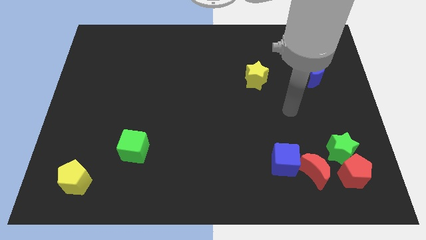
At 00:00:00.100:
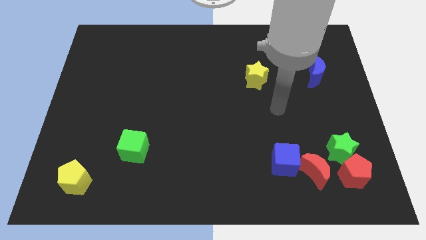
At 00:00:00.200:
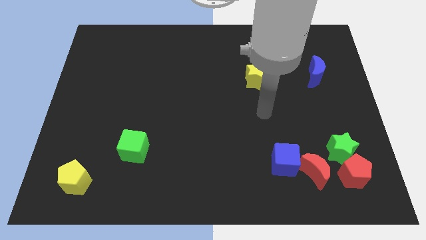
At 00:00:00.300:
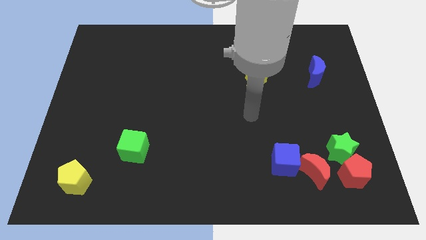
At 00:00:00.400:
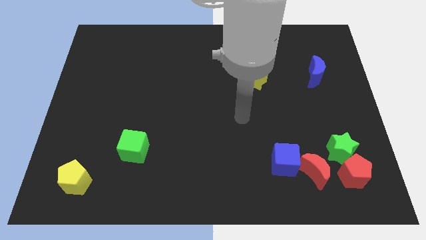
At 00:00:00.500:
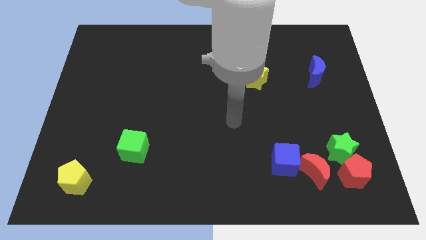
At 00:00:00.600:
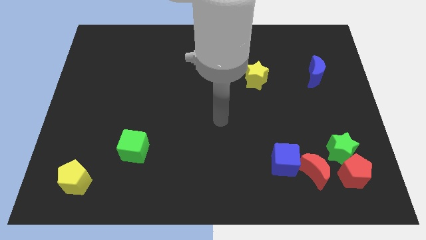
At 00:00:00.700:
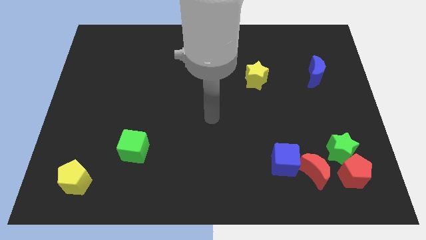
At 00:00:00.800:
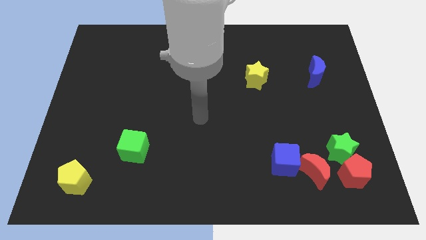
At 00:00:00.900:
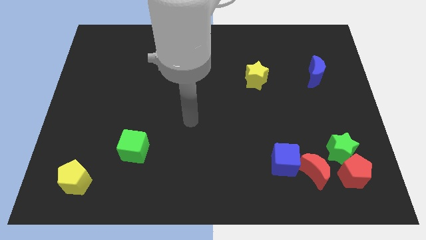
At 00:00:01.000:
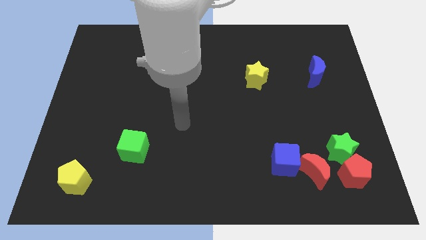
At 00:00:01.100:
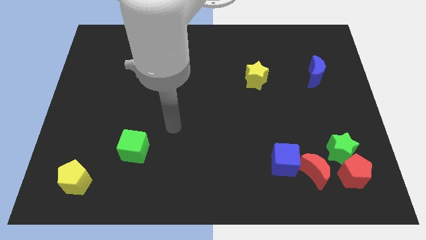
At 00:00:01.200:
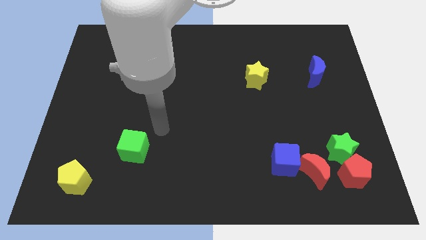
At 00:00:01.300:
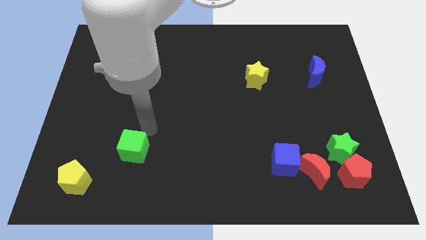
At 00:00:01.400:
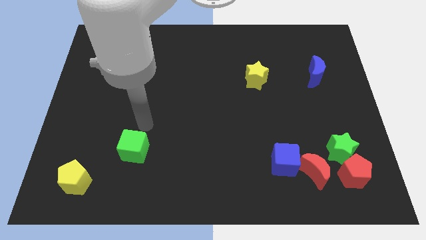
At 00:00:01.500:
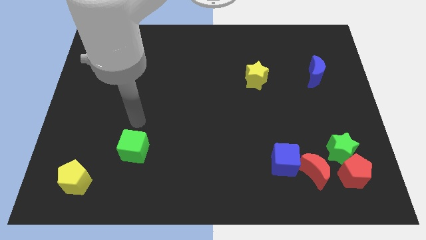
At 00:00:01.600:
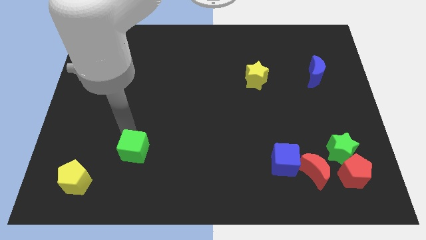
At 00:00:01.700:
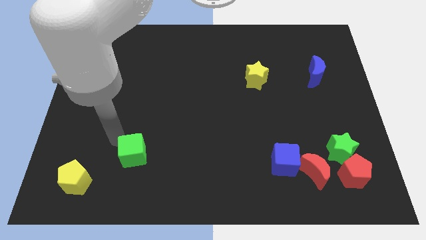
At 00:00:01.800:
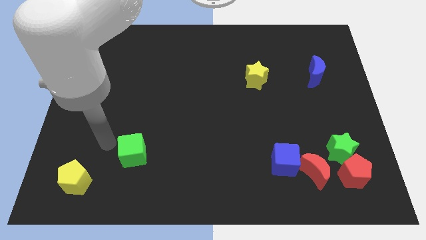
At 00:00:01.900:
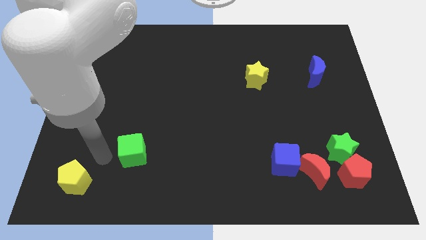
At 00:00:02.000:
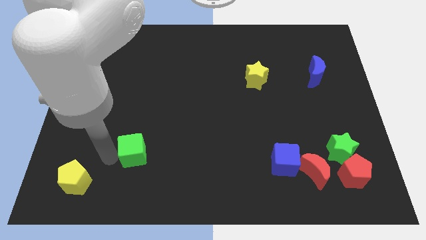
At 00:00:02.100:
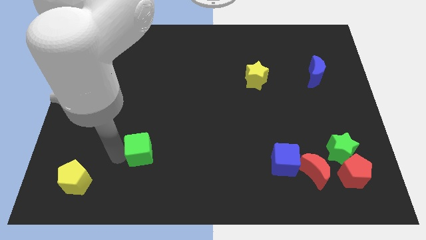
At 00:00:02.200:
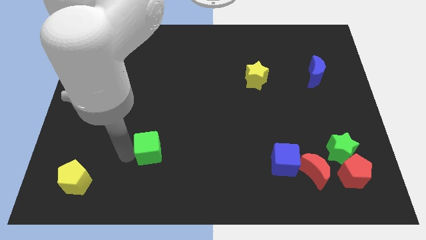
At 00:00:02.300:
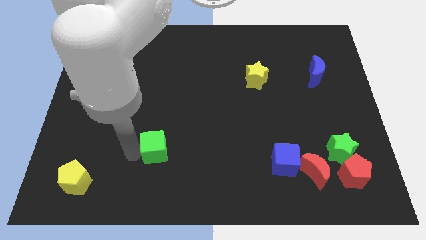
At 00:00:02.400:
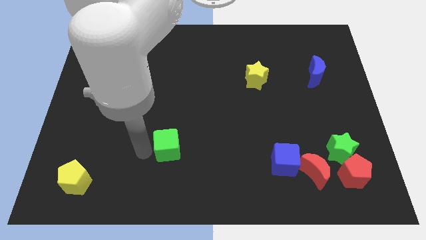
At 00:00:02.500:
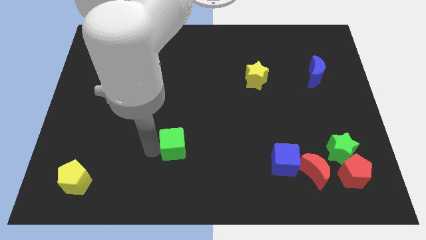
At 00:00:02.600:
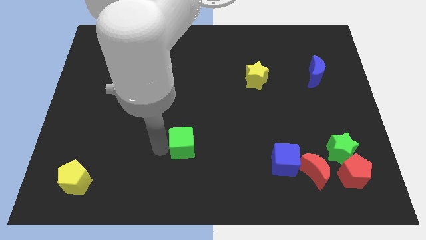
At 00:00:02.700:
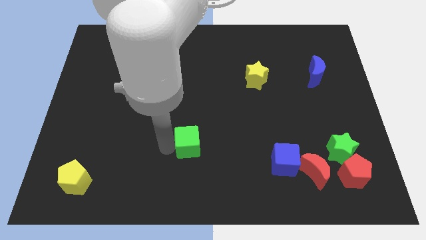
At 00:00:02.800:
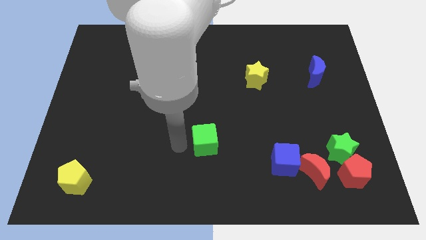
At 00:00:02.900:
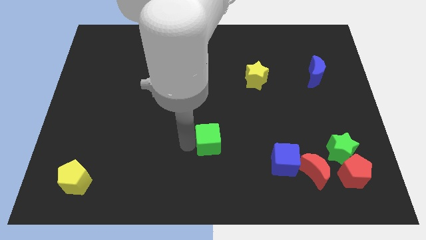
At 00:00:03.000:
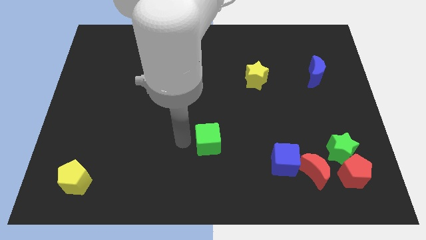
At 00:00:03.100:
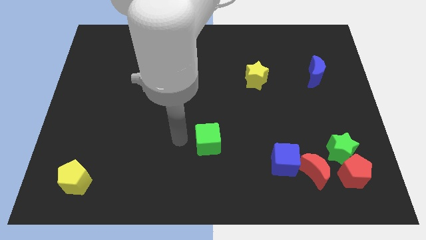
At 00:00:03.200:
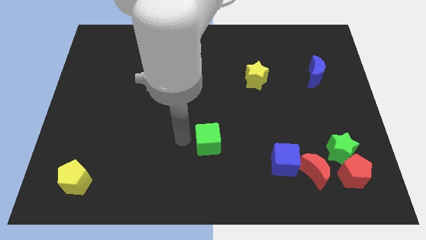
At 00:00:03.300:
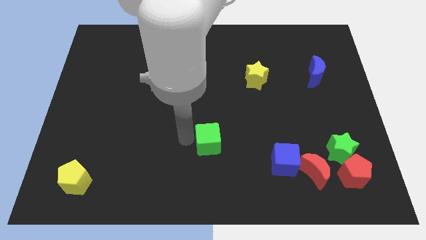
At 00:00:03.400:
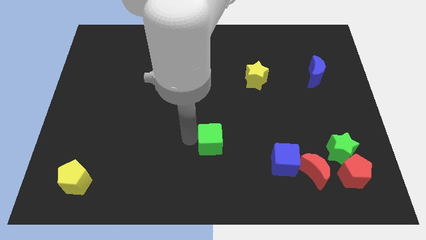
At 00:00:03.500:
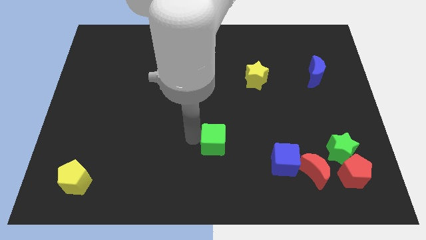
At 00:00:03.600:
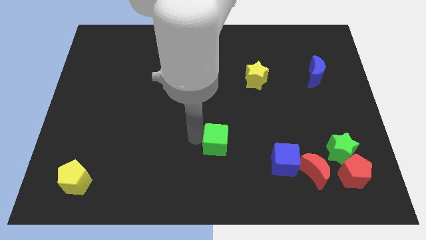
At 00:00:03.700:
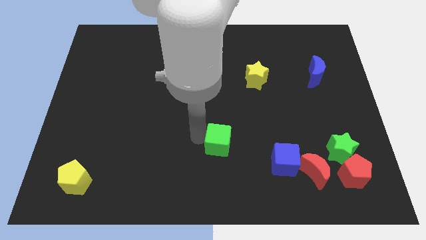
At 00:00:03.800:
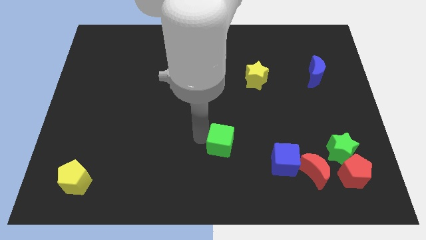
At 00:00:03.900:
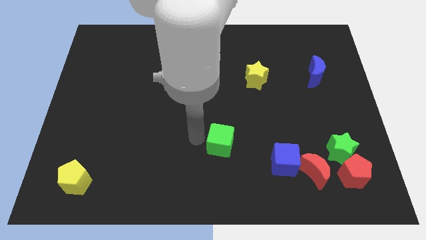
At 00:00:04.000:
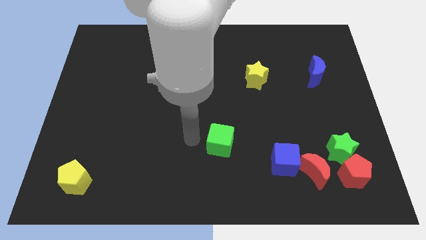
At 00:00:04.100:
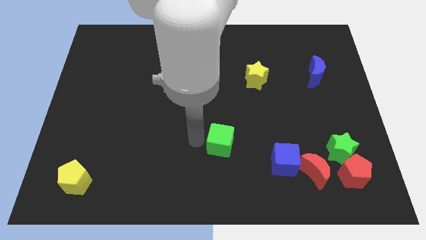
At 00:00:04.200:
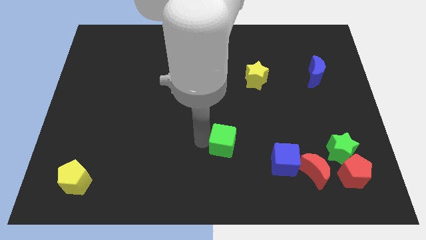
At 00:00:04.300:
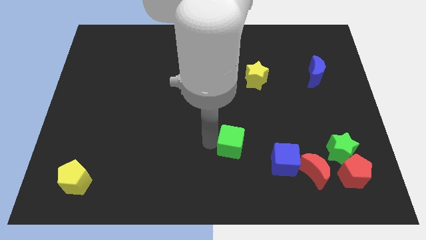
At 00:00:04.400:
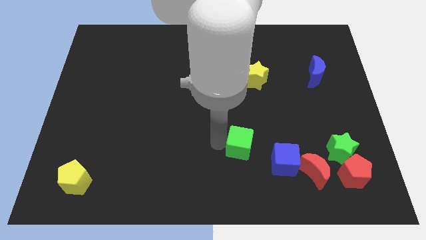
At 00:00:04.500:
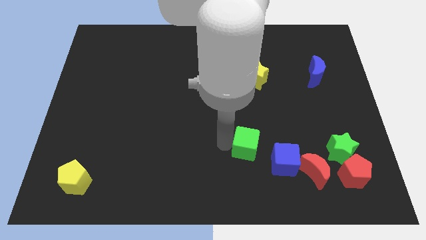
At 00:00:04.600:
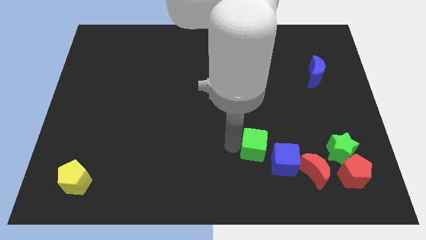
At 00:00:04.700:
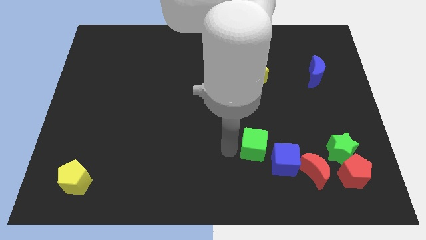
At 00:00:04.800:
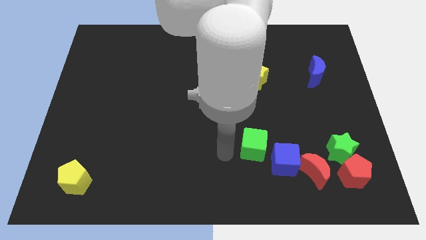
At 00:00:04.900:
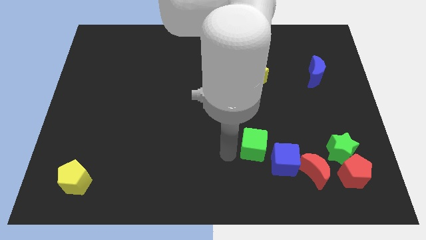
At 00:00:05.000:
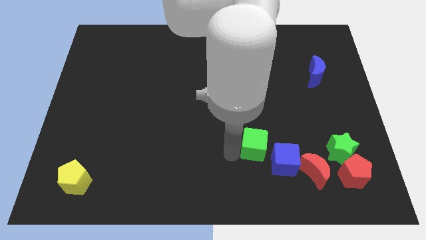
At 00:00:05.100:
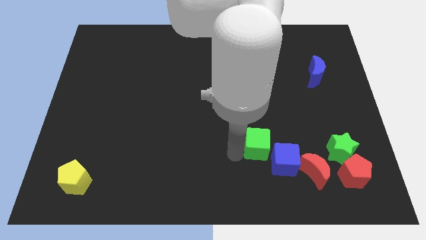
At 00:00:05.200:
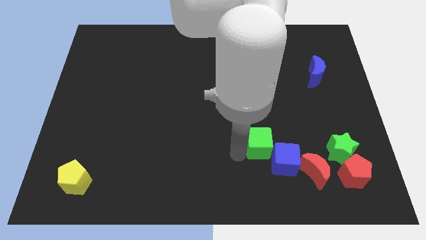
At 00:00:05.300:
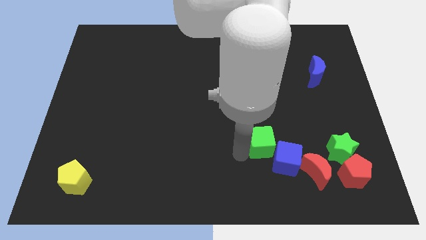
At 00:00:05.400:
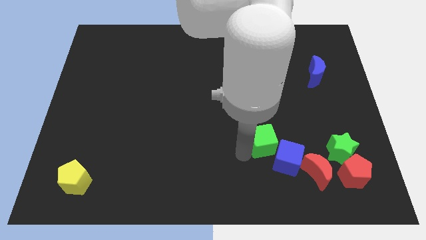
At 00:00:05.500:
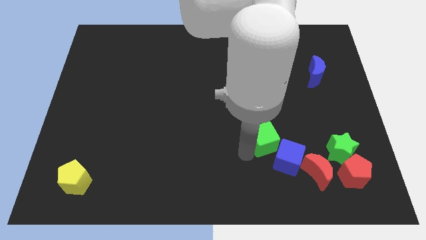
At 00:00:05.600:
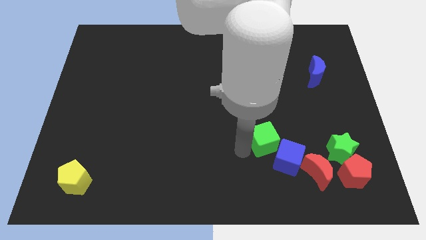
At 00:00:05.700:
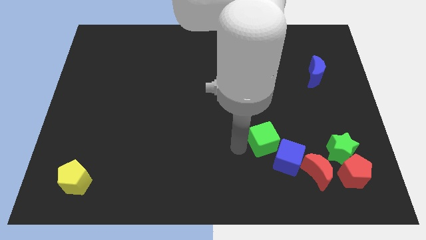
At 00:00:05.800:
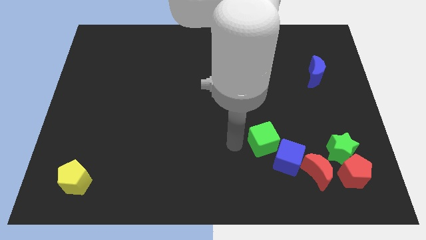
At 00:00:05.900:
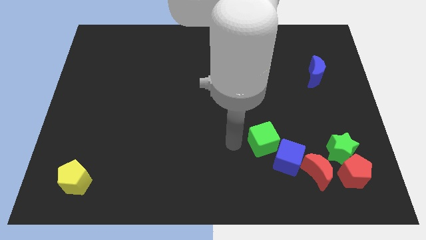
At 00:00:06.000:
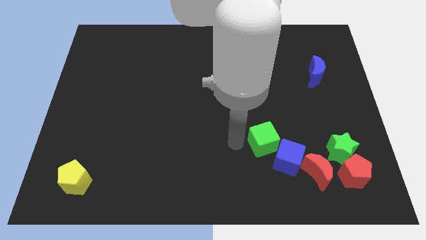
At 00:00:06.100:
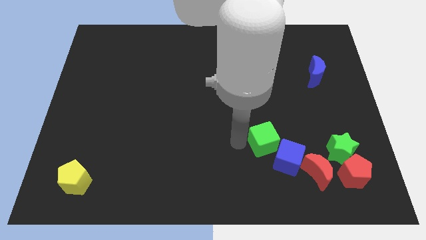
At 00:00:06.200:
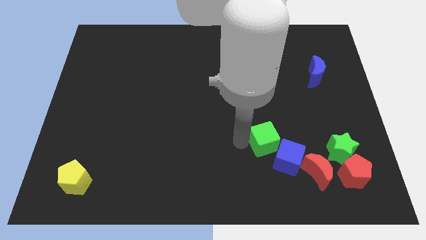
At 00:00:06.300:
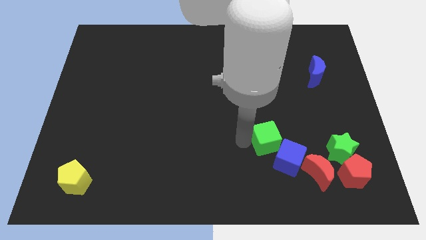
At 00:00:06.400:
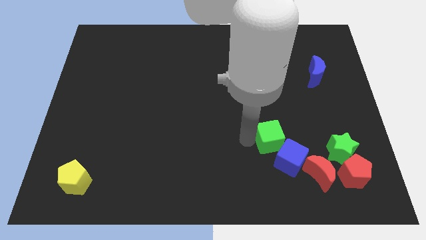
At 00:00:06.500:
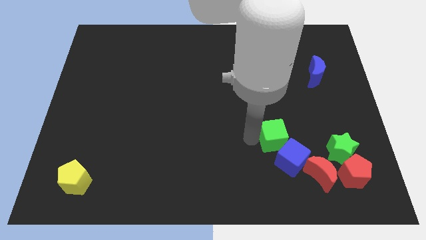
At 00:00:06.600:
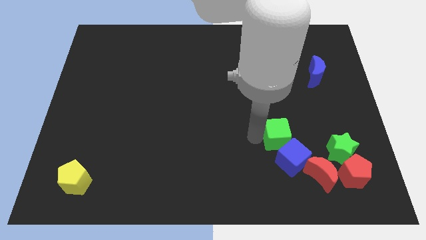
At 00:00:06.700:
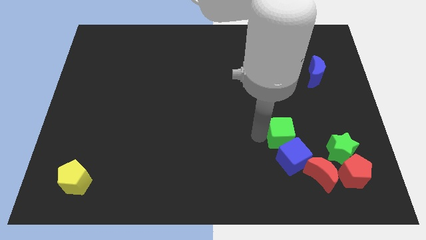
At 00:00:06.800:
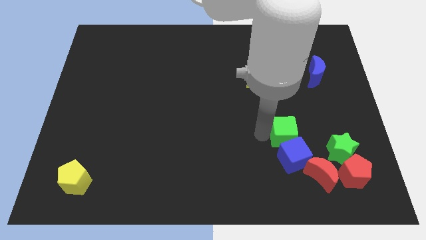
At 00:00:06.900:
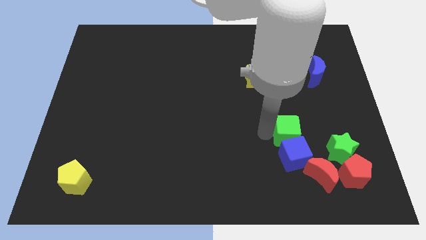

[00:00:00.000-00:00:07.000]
move the green cube to the top right of the blue cube

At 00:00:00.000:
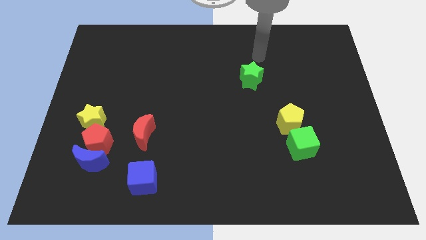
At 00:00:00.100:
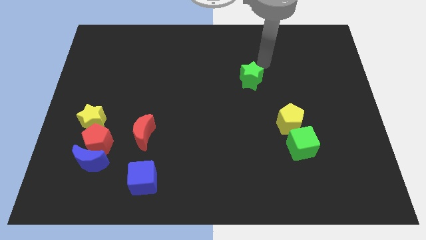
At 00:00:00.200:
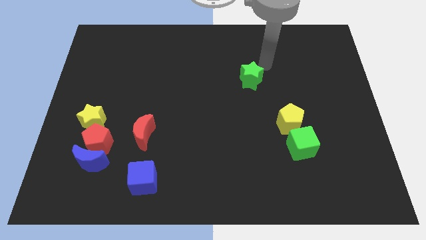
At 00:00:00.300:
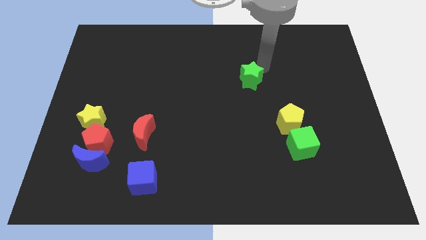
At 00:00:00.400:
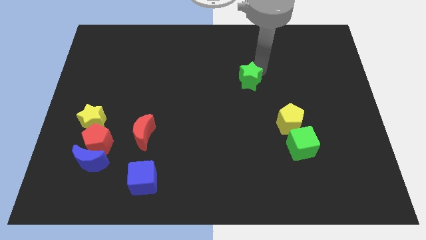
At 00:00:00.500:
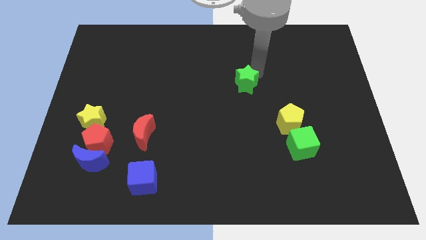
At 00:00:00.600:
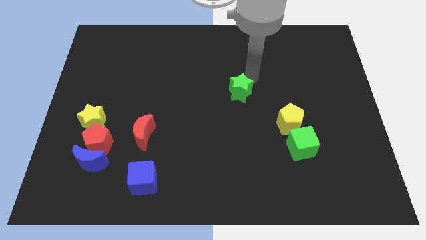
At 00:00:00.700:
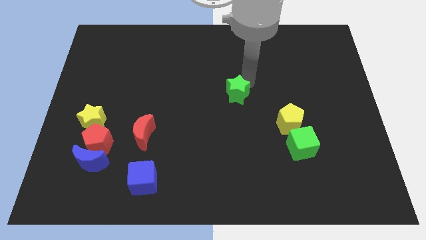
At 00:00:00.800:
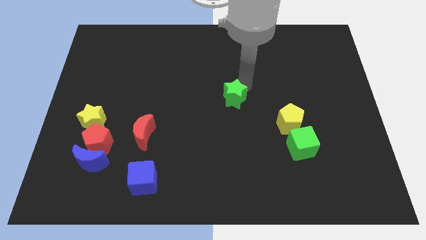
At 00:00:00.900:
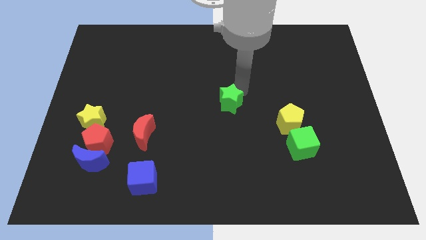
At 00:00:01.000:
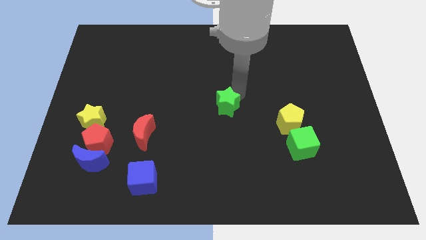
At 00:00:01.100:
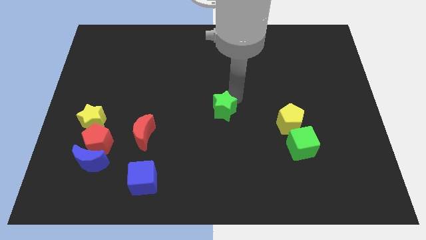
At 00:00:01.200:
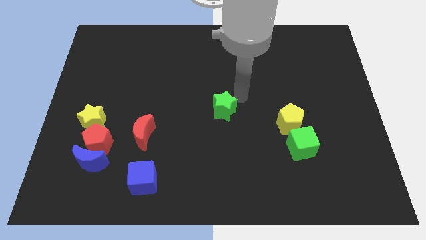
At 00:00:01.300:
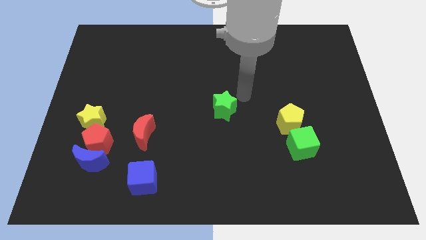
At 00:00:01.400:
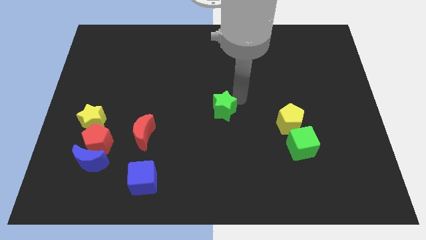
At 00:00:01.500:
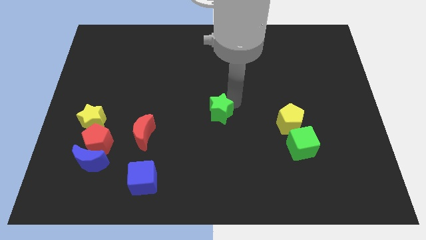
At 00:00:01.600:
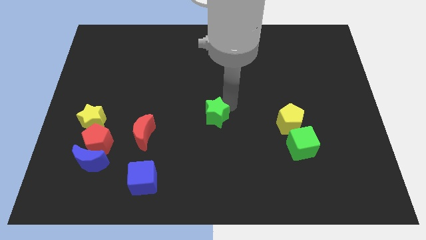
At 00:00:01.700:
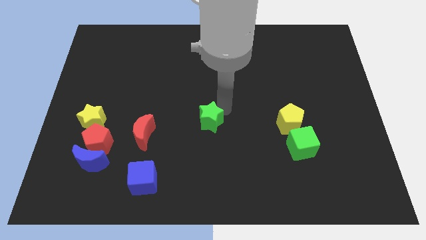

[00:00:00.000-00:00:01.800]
move the green star right of the red moon
